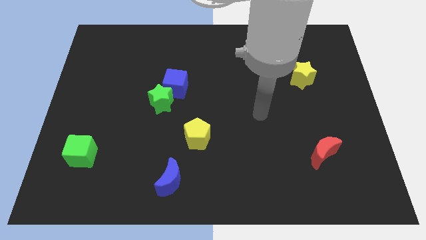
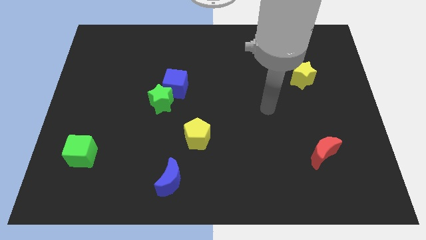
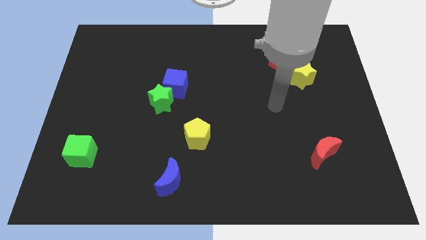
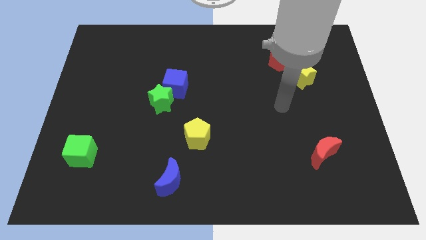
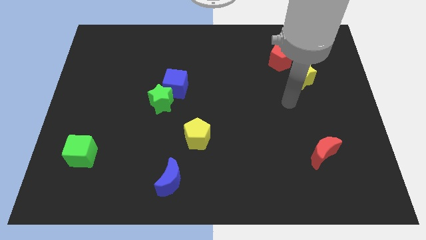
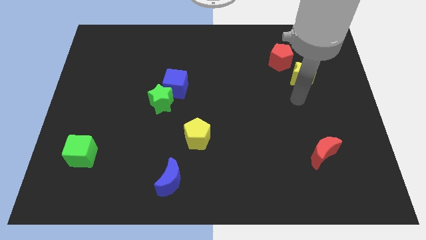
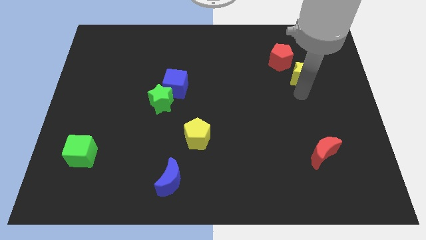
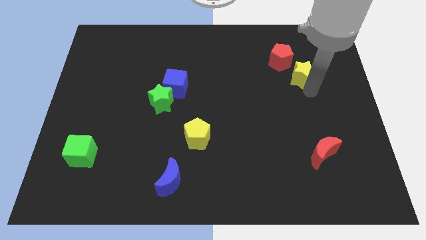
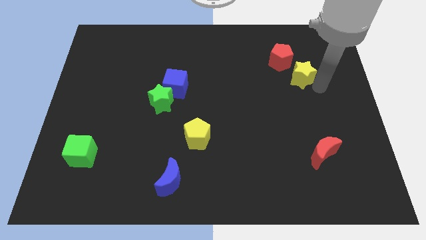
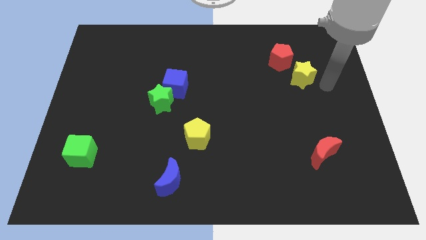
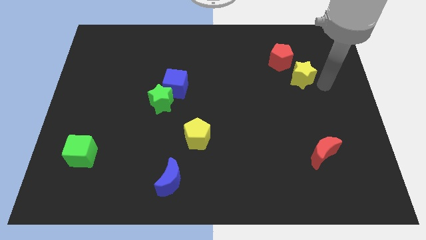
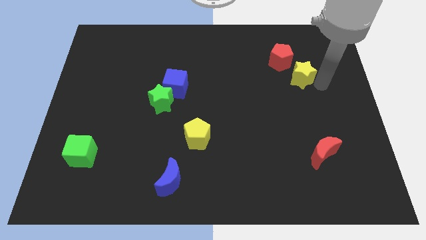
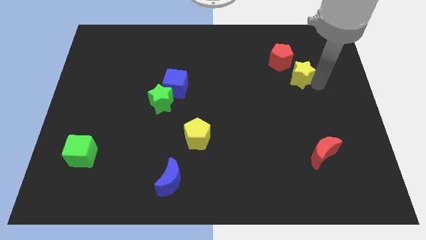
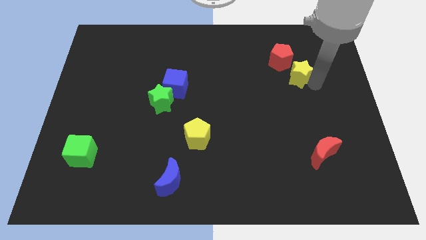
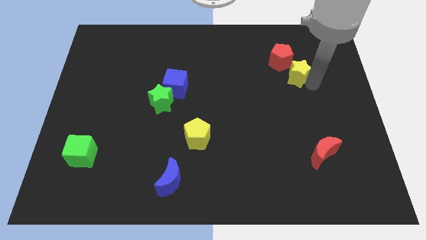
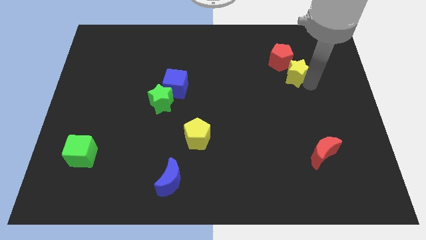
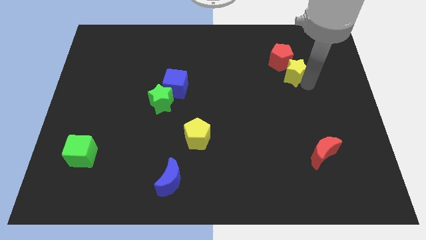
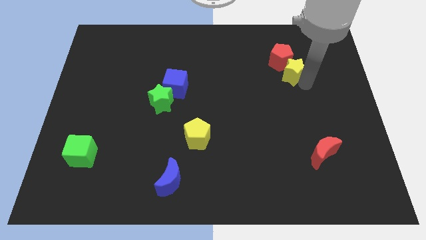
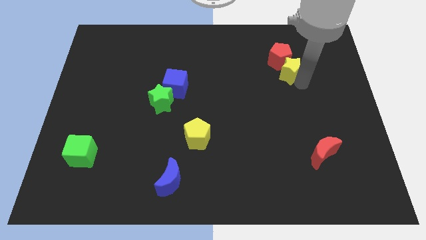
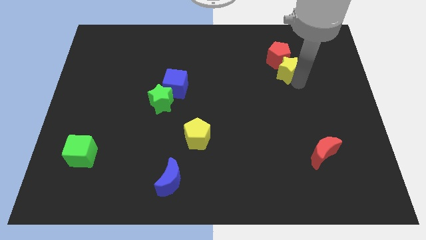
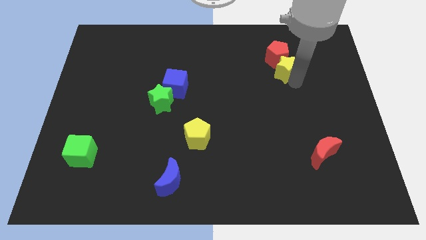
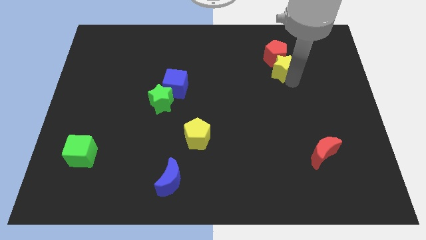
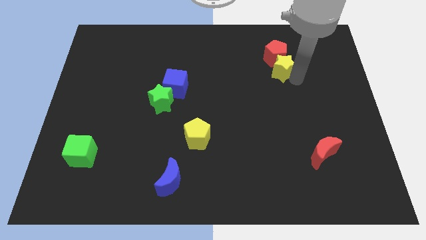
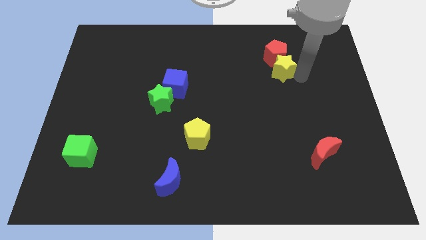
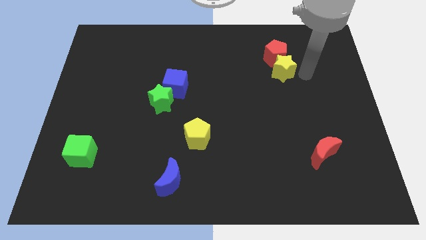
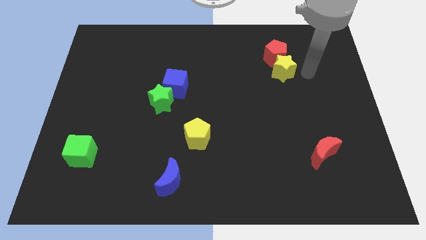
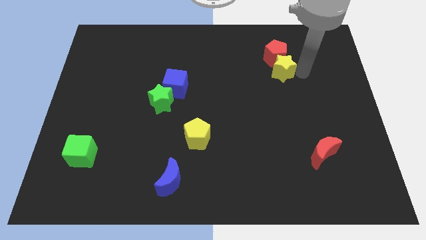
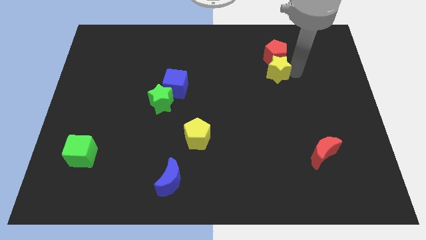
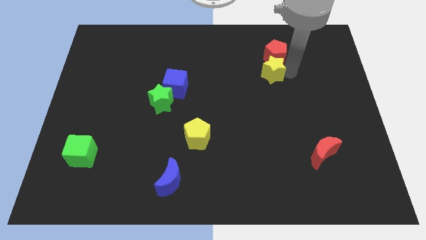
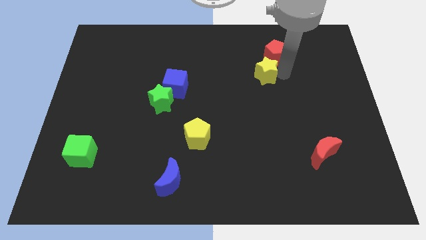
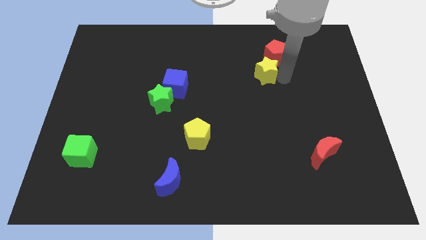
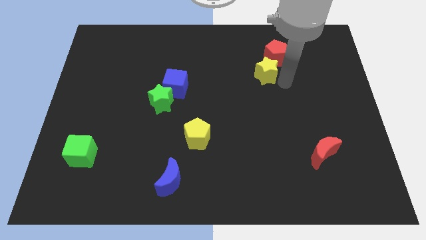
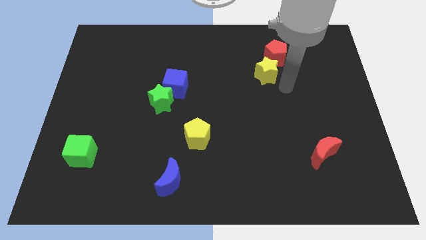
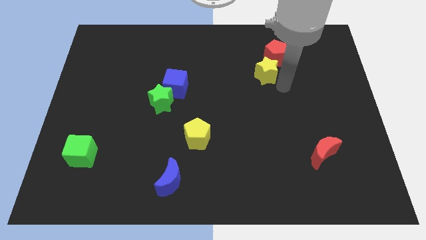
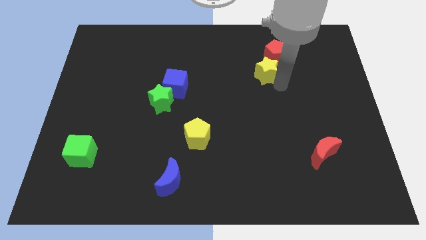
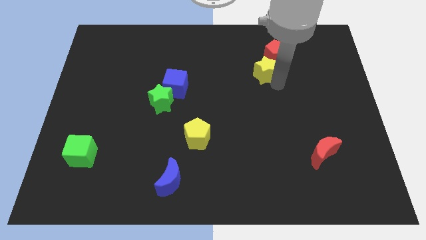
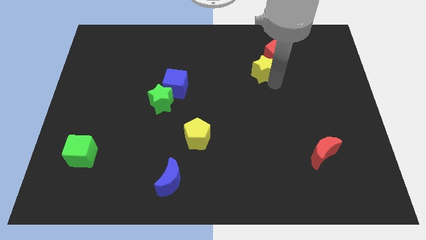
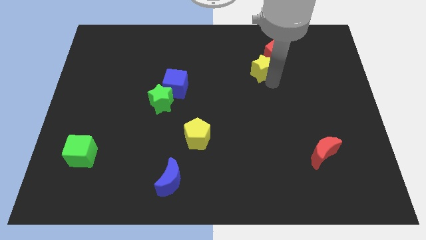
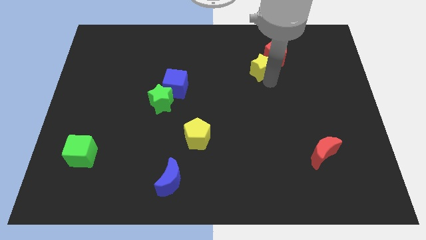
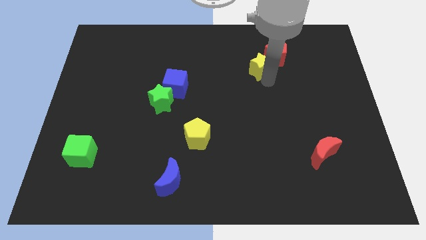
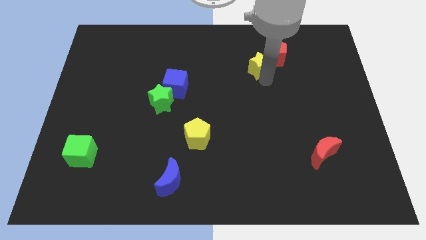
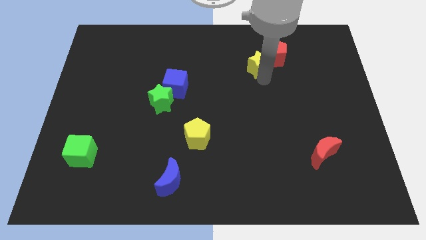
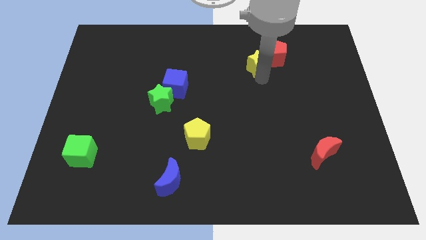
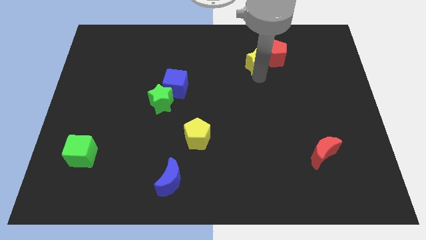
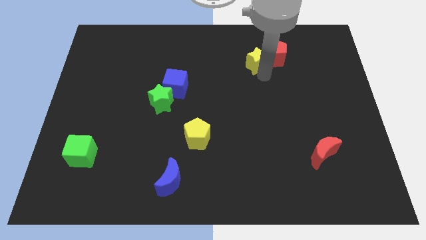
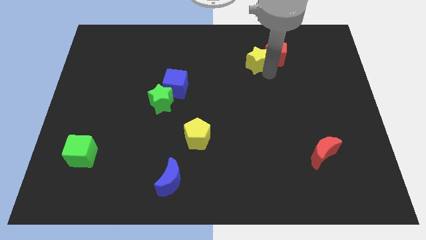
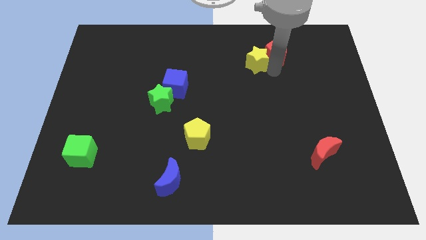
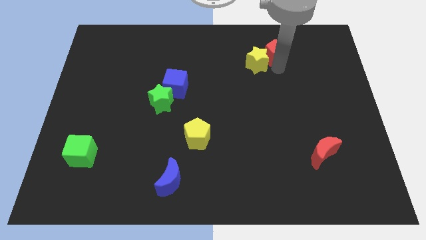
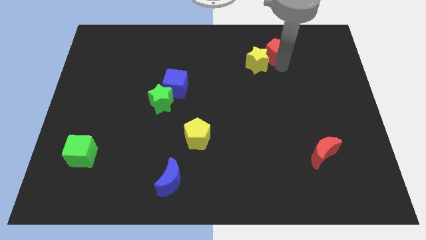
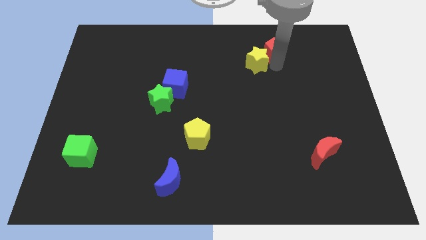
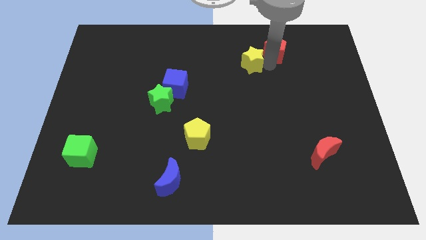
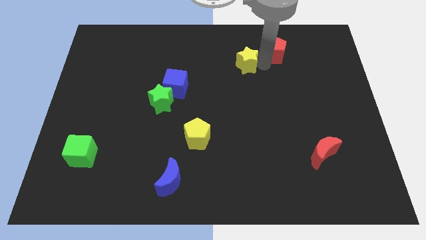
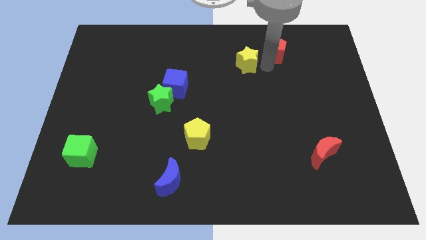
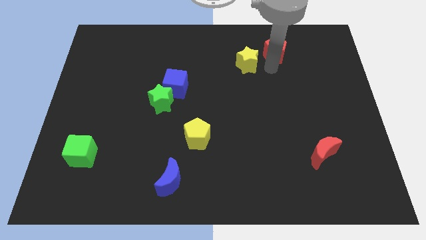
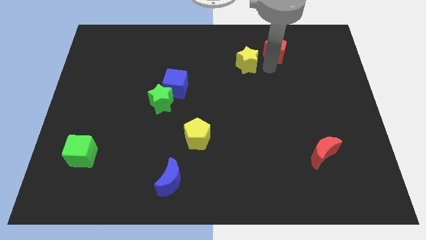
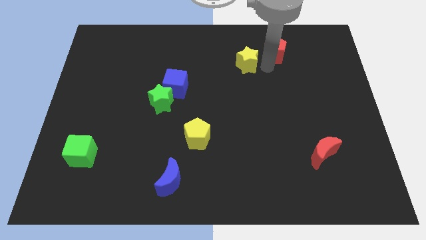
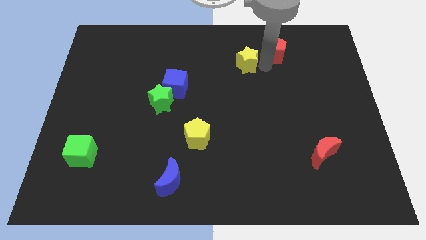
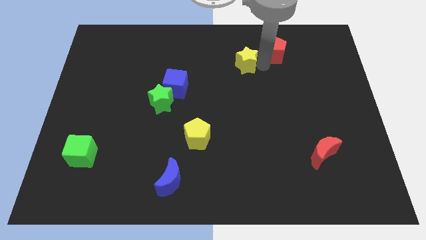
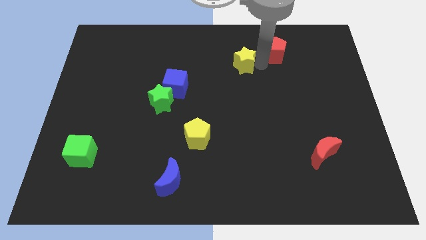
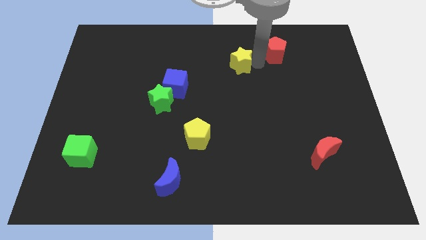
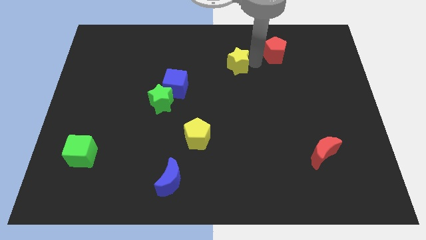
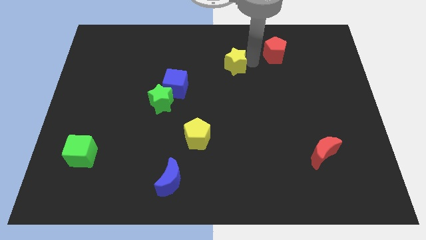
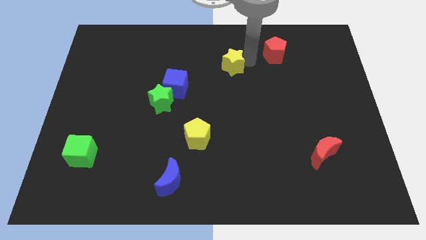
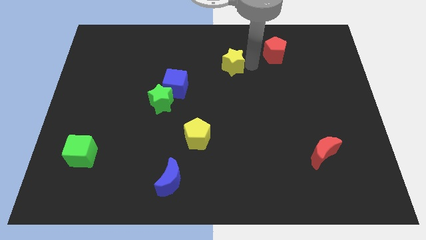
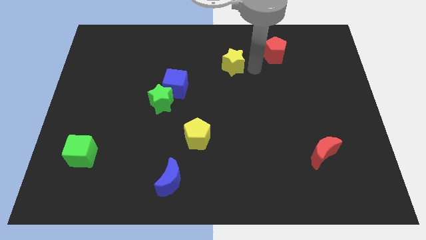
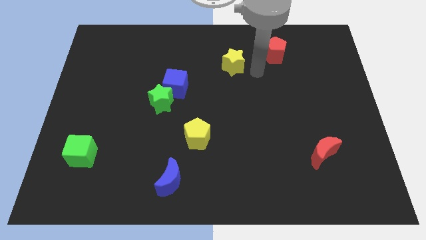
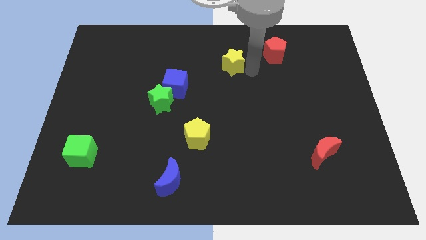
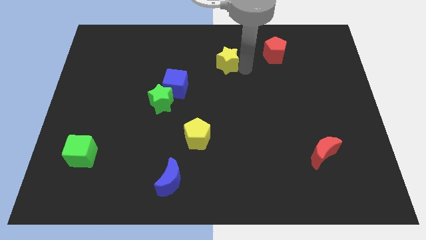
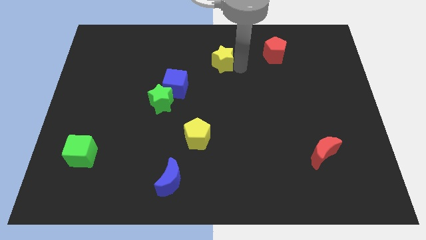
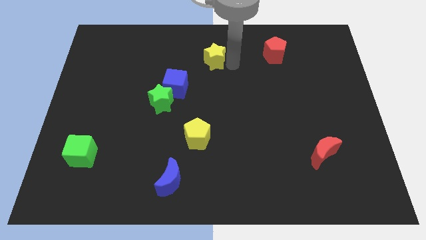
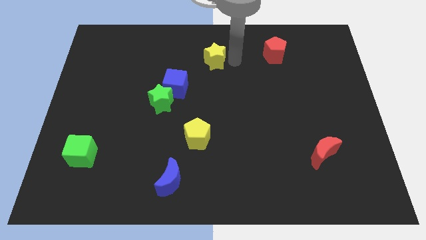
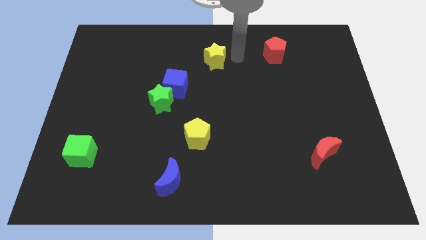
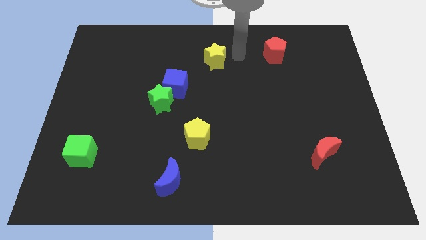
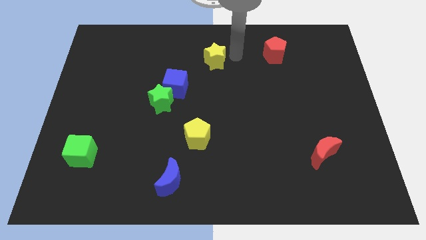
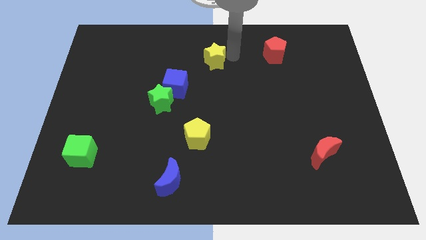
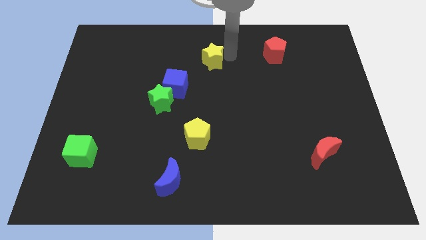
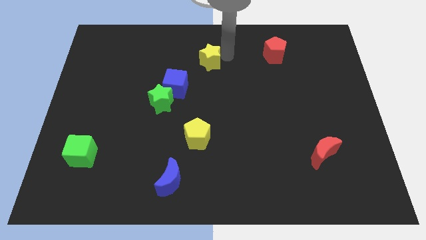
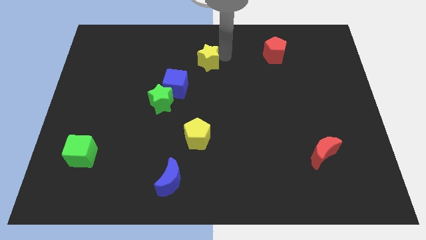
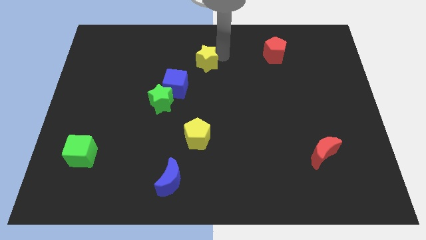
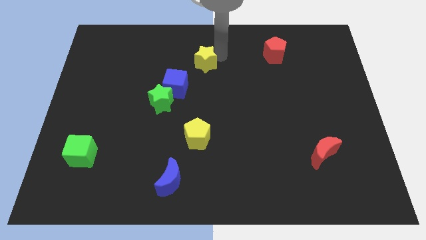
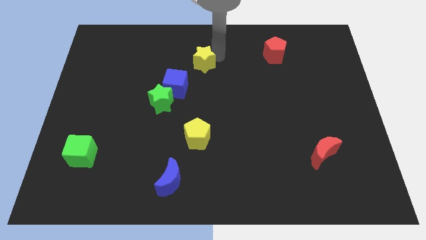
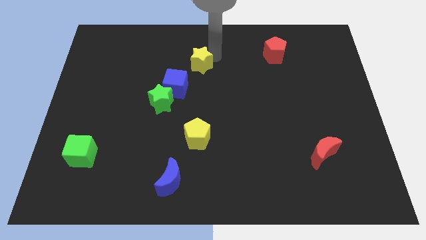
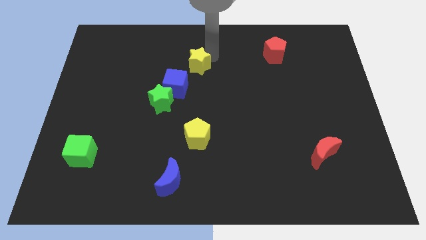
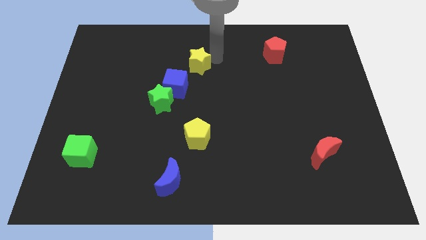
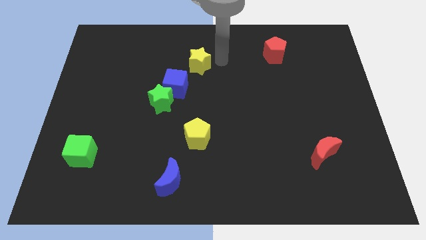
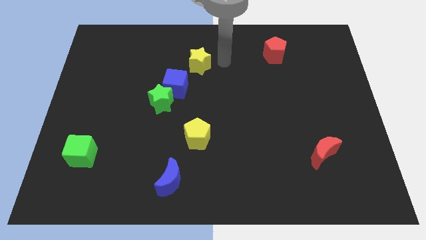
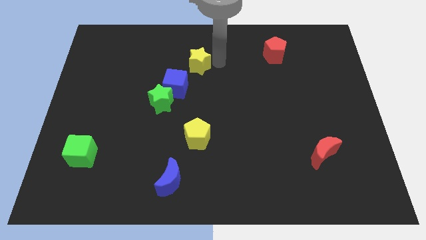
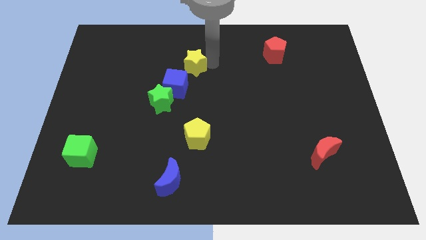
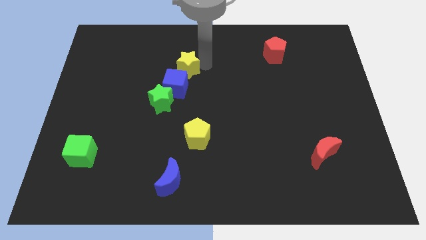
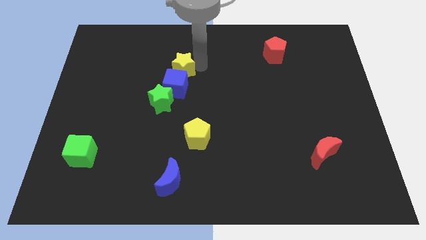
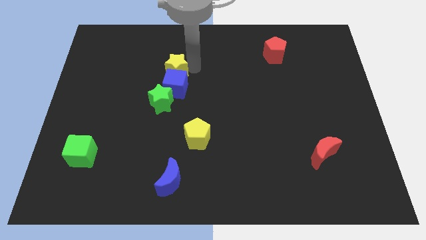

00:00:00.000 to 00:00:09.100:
slide the yellow star diagonally up and to the left of the blue cube
